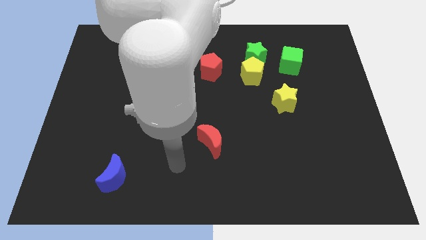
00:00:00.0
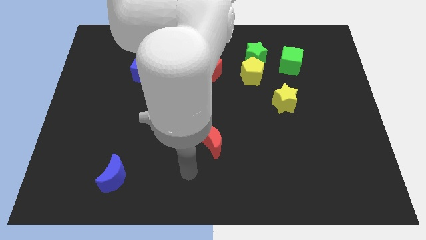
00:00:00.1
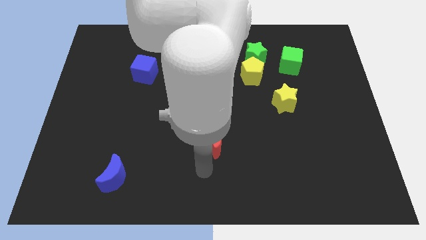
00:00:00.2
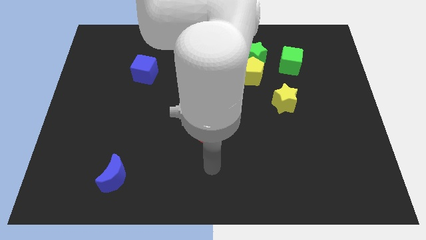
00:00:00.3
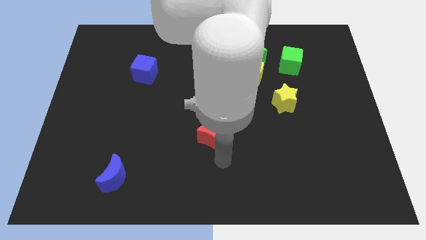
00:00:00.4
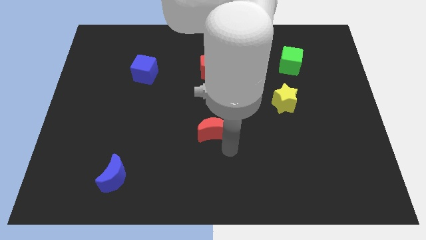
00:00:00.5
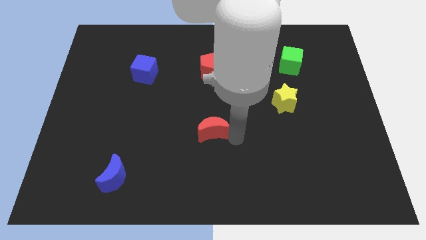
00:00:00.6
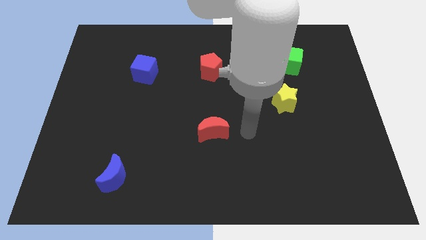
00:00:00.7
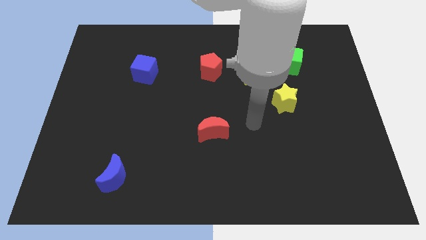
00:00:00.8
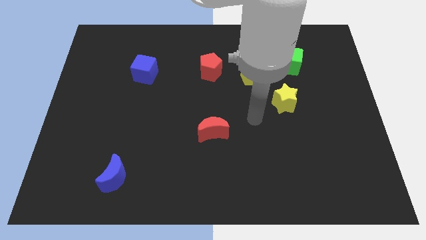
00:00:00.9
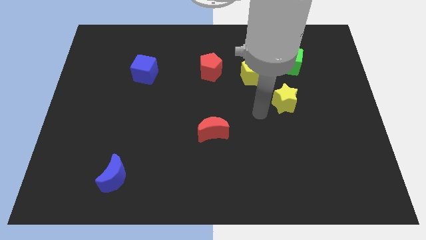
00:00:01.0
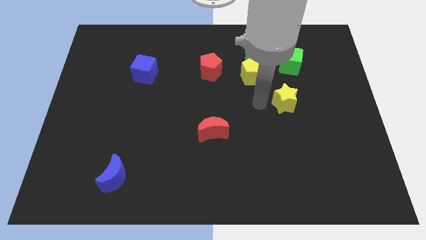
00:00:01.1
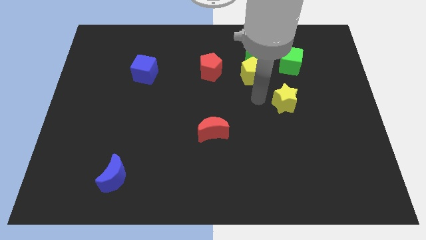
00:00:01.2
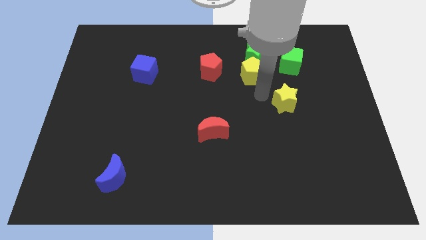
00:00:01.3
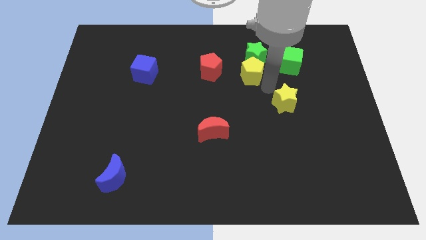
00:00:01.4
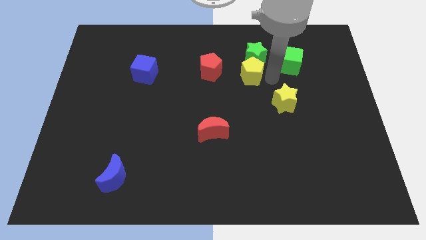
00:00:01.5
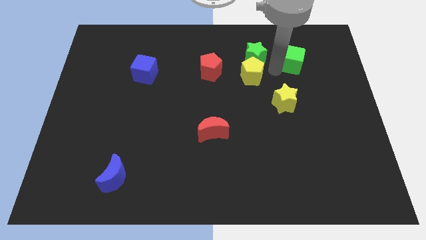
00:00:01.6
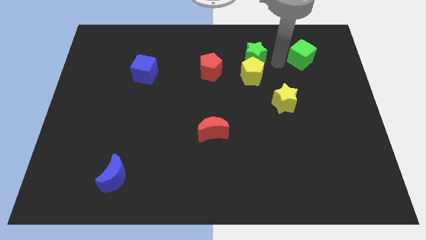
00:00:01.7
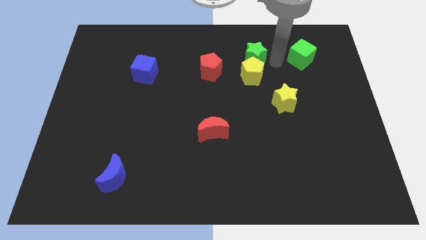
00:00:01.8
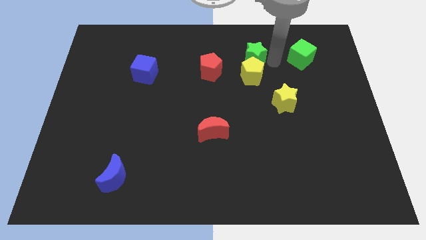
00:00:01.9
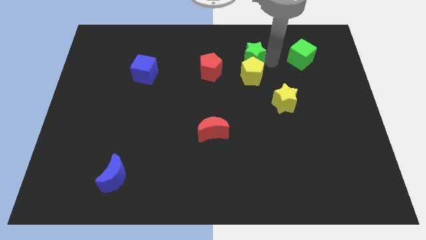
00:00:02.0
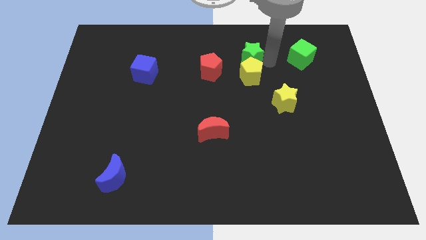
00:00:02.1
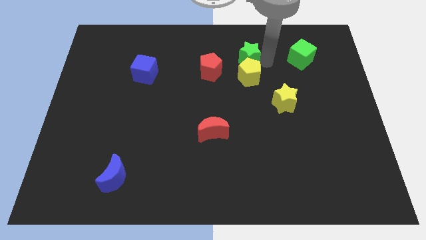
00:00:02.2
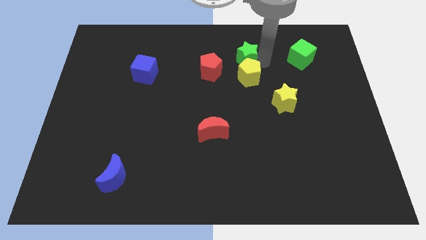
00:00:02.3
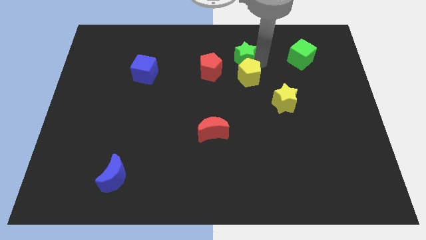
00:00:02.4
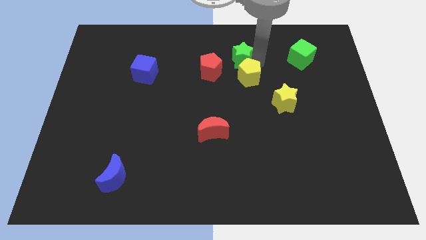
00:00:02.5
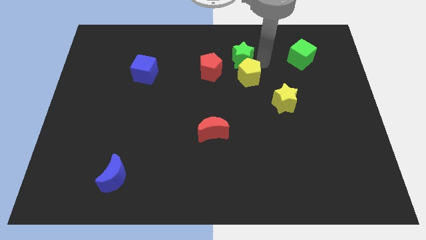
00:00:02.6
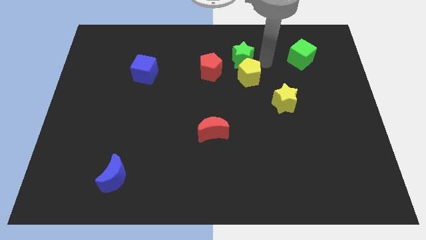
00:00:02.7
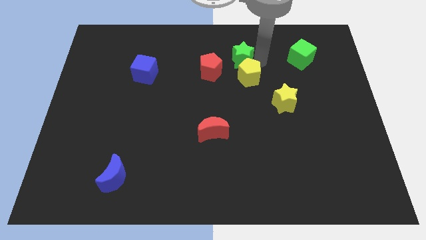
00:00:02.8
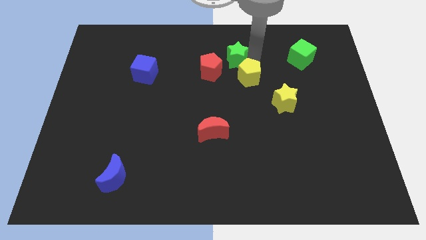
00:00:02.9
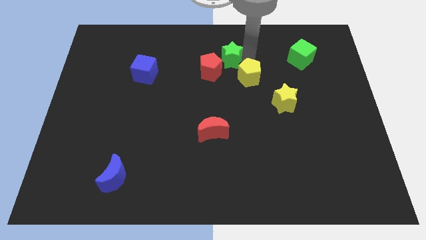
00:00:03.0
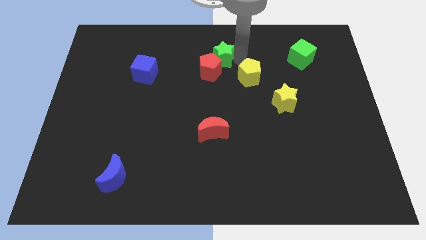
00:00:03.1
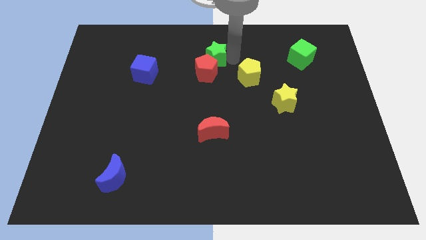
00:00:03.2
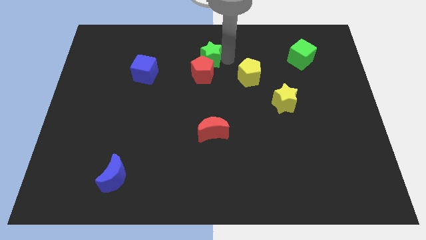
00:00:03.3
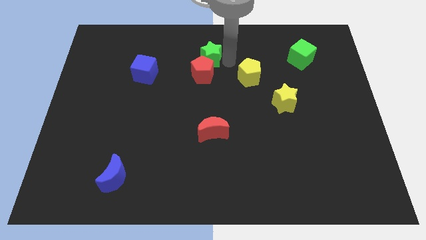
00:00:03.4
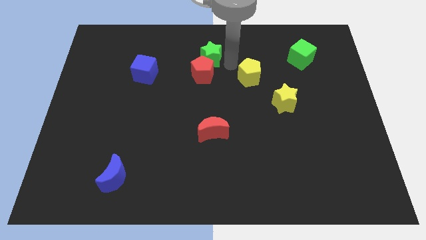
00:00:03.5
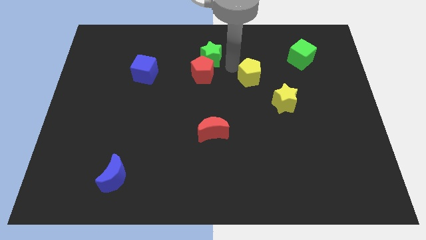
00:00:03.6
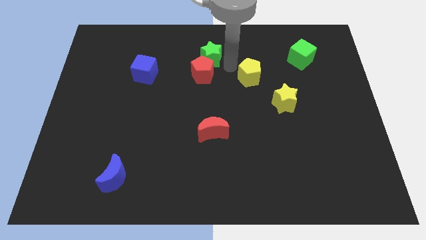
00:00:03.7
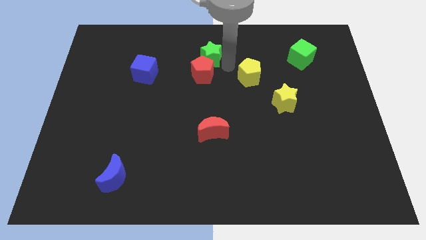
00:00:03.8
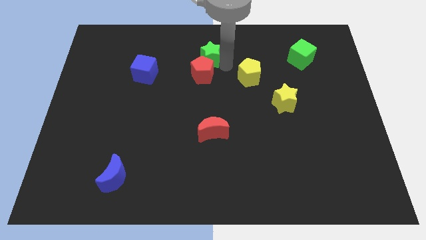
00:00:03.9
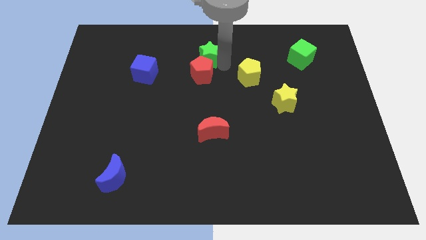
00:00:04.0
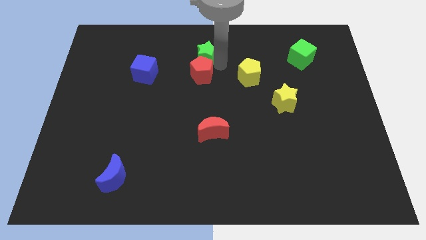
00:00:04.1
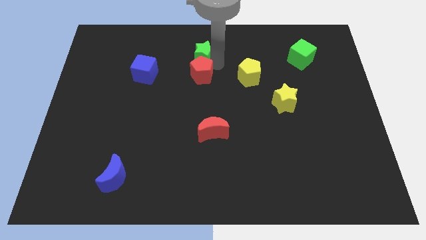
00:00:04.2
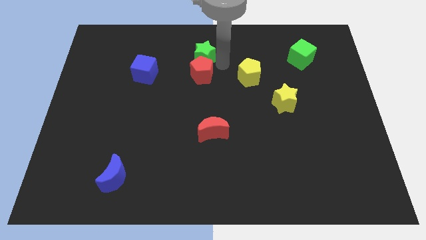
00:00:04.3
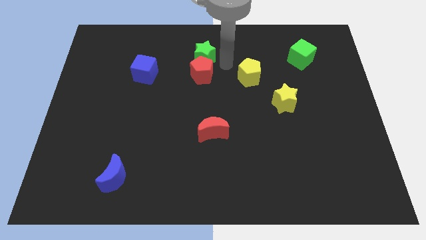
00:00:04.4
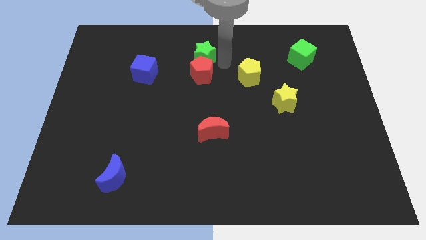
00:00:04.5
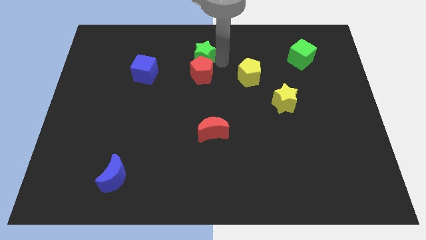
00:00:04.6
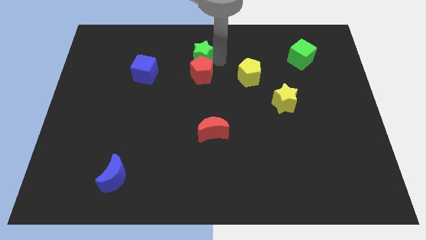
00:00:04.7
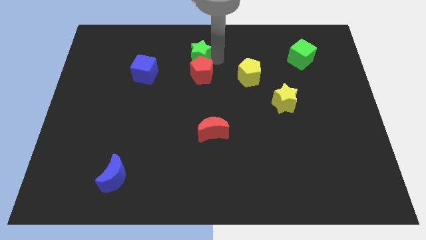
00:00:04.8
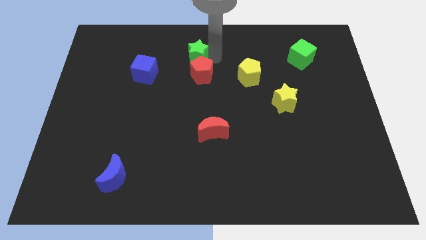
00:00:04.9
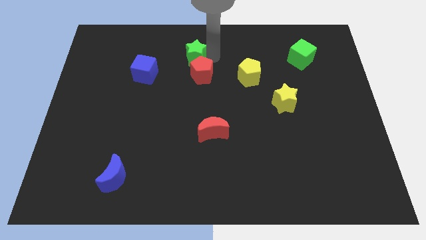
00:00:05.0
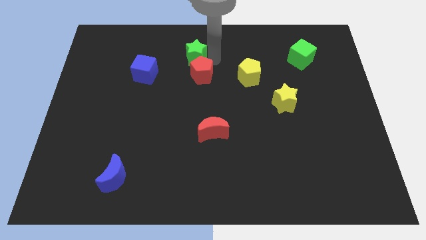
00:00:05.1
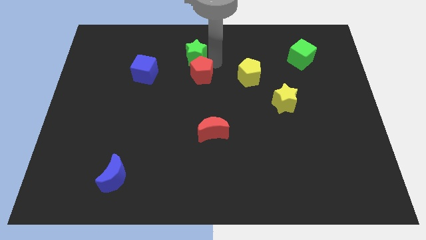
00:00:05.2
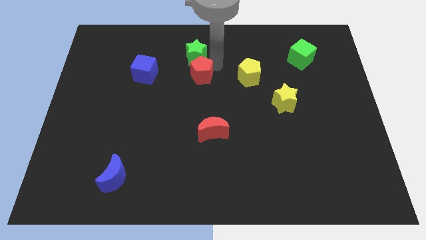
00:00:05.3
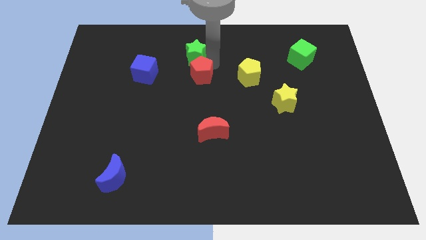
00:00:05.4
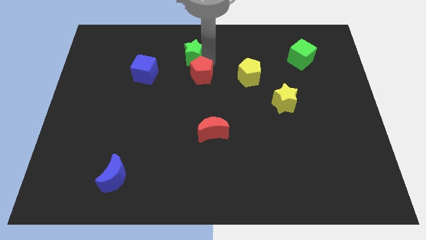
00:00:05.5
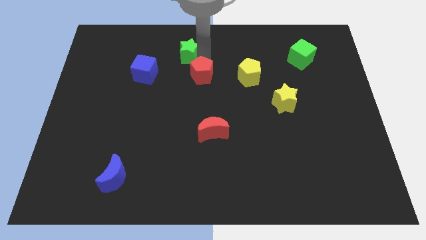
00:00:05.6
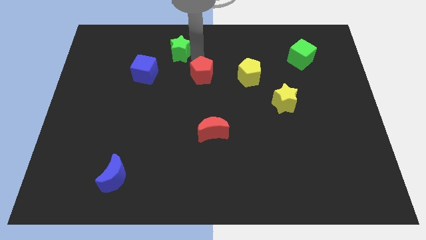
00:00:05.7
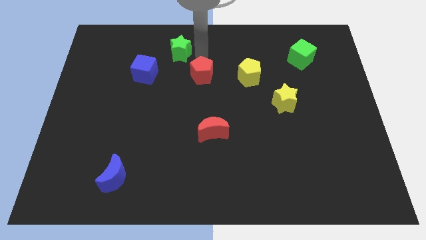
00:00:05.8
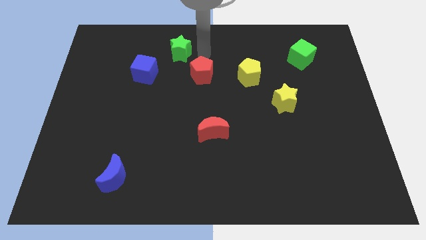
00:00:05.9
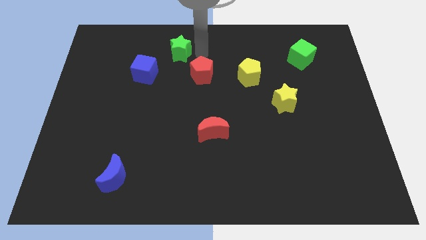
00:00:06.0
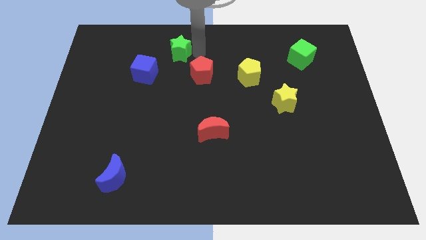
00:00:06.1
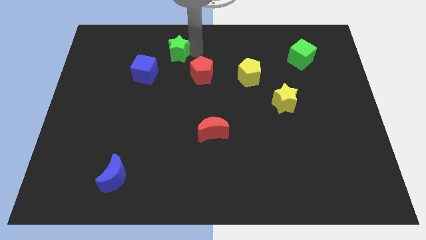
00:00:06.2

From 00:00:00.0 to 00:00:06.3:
slide the green star to the left

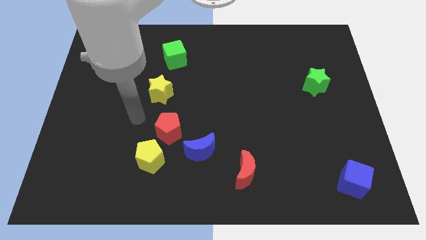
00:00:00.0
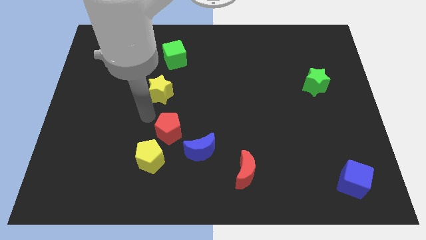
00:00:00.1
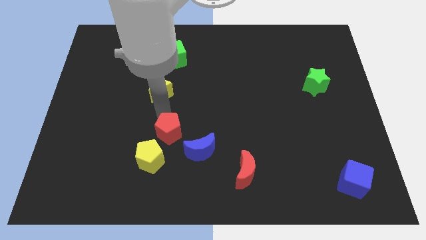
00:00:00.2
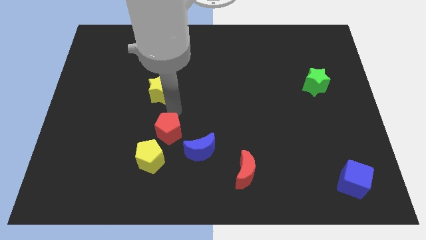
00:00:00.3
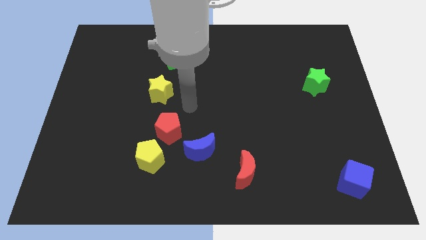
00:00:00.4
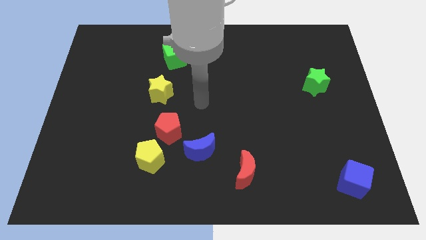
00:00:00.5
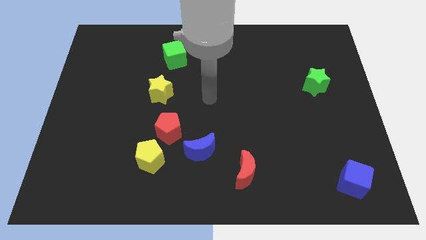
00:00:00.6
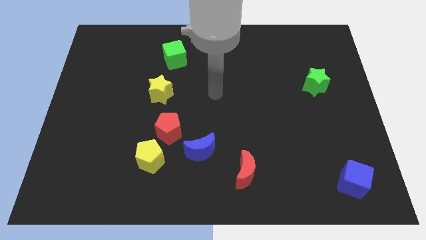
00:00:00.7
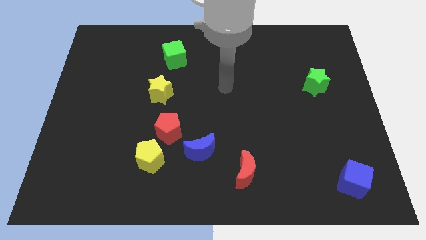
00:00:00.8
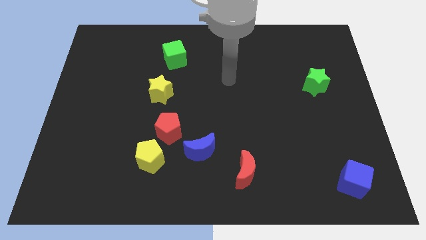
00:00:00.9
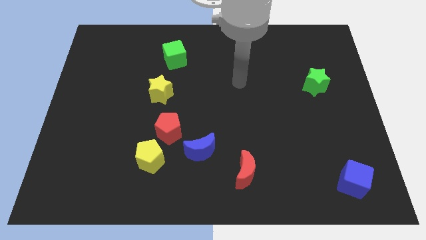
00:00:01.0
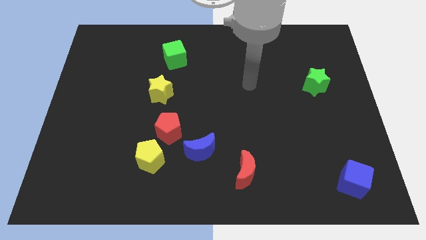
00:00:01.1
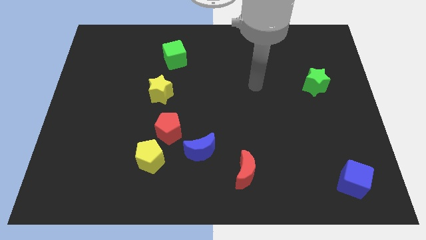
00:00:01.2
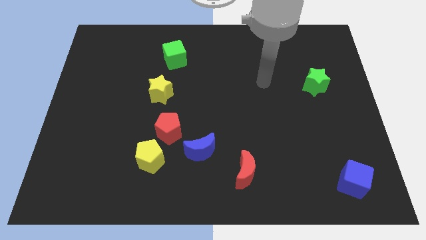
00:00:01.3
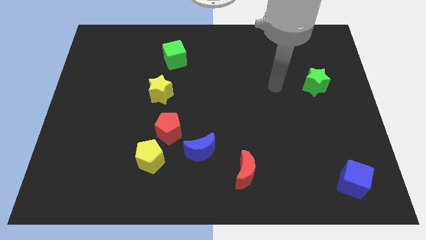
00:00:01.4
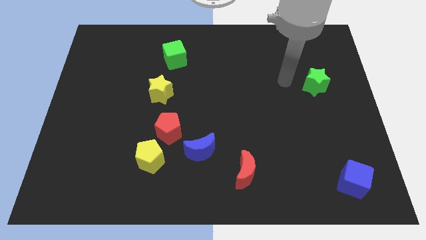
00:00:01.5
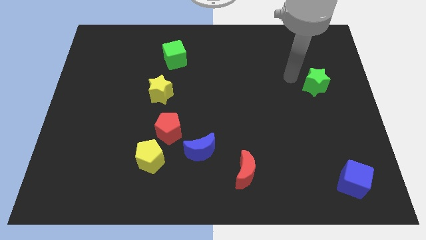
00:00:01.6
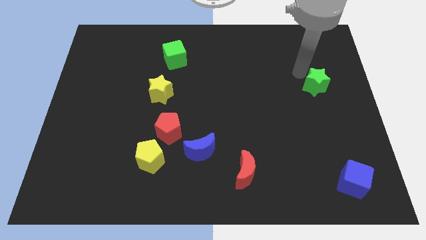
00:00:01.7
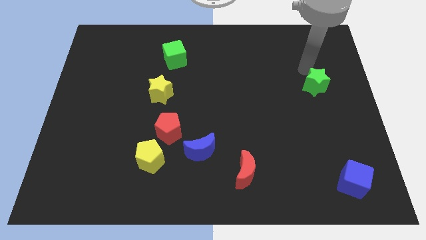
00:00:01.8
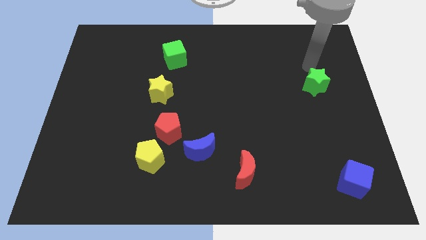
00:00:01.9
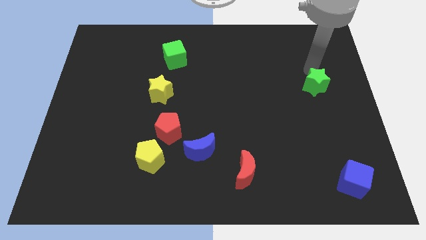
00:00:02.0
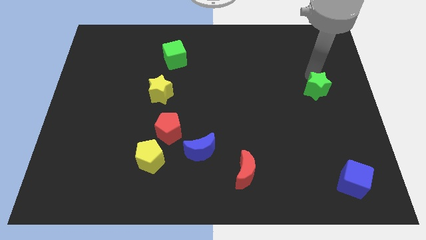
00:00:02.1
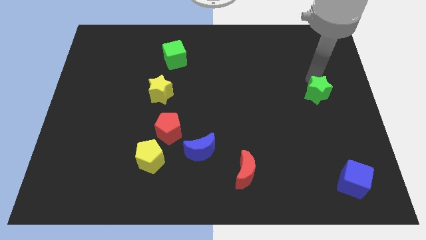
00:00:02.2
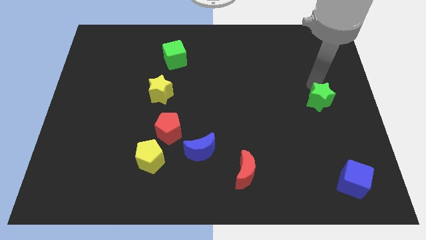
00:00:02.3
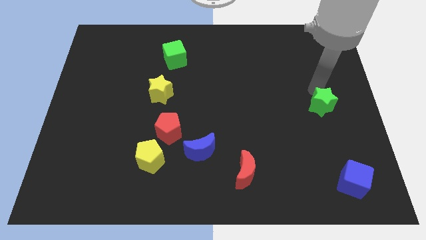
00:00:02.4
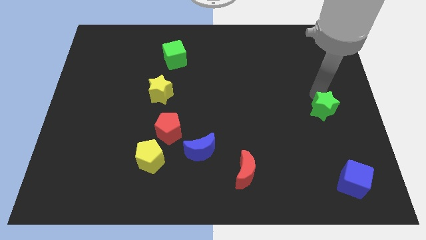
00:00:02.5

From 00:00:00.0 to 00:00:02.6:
slide the green star slightly downwards
